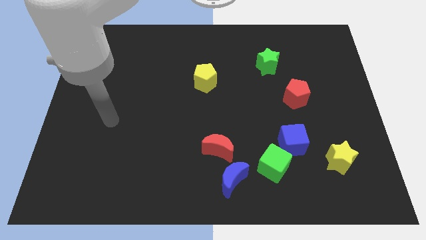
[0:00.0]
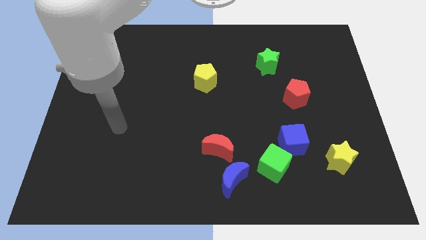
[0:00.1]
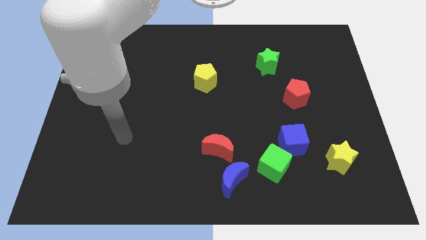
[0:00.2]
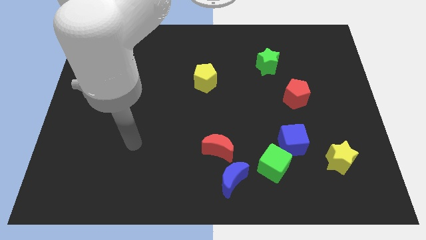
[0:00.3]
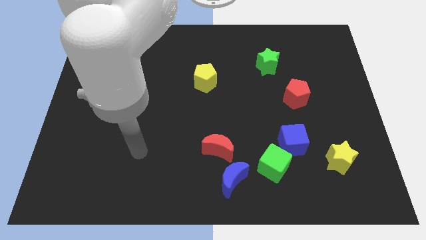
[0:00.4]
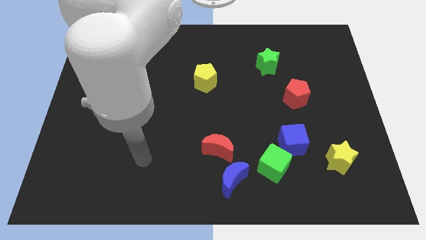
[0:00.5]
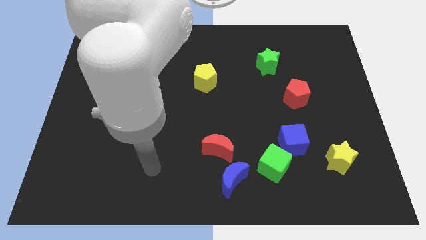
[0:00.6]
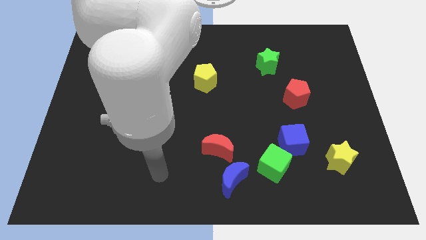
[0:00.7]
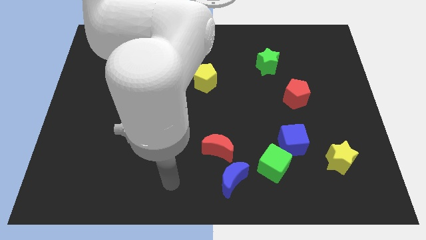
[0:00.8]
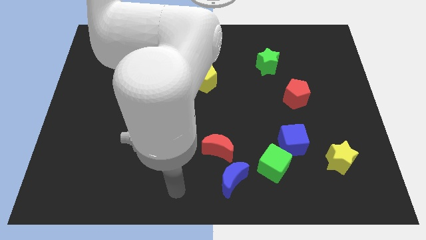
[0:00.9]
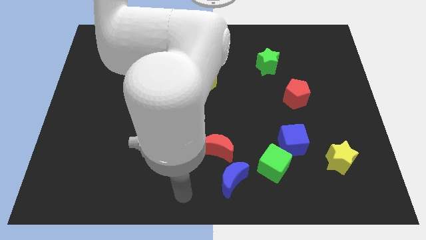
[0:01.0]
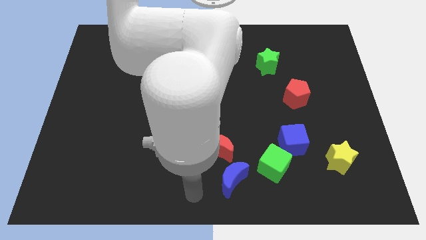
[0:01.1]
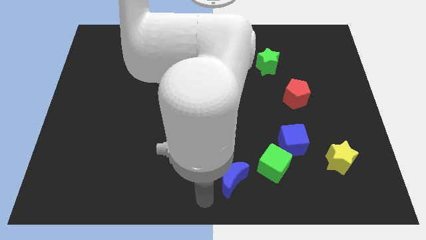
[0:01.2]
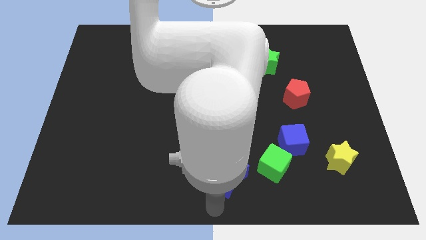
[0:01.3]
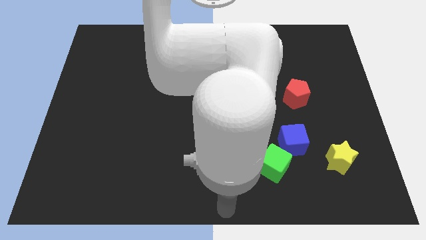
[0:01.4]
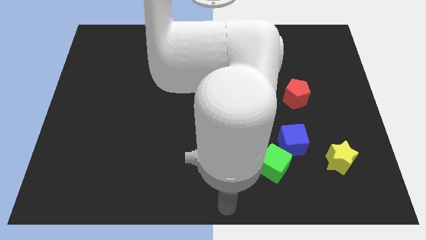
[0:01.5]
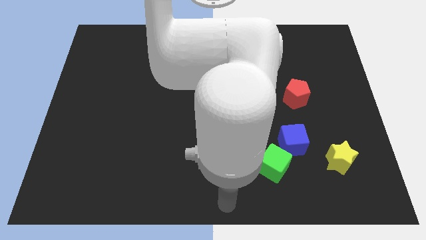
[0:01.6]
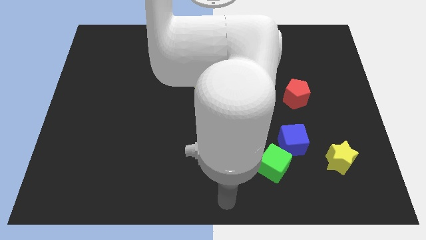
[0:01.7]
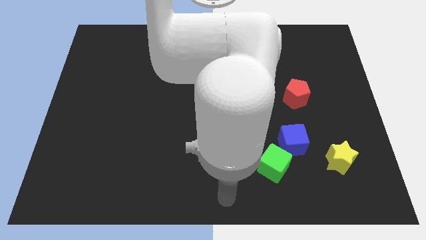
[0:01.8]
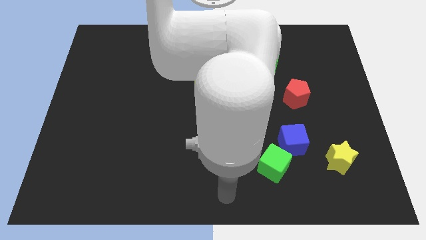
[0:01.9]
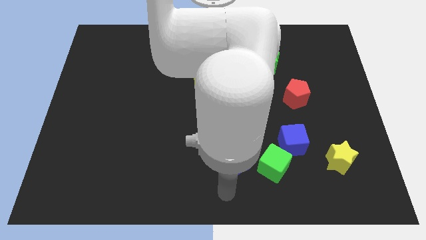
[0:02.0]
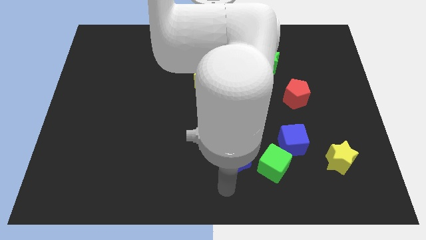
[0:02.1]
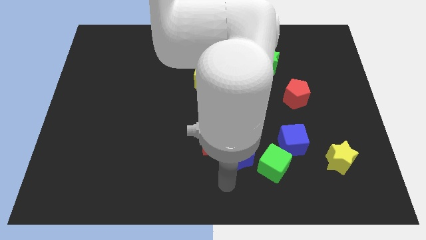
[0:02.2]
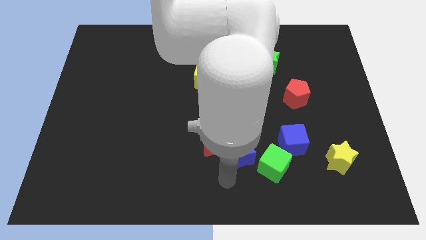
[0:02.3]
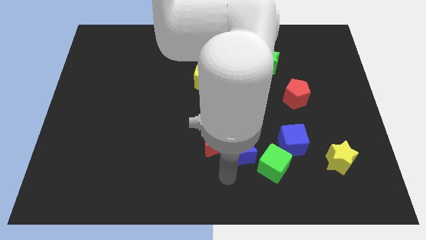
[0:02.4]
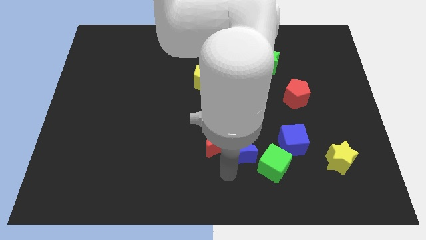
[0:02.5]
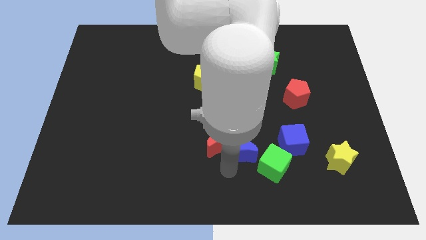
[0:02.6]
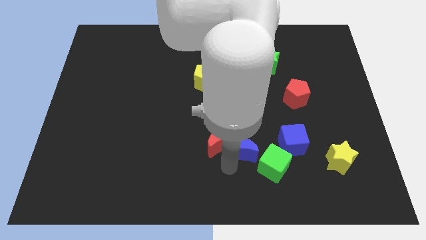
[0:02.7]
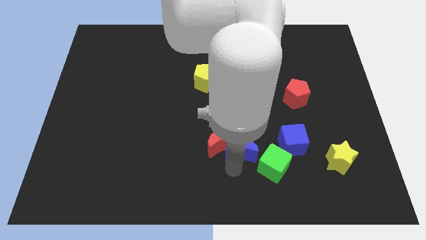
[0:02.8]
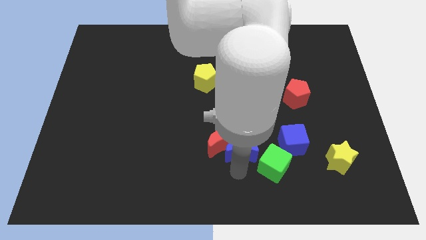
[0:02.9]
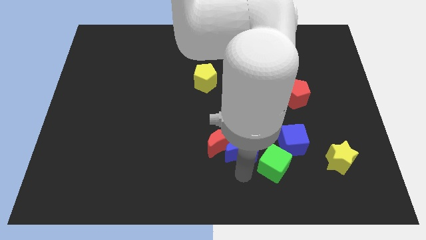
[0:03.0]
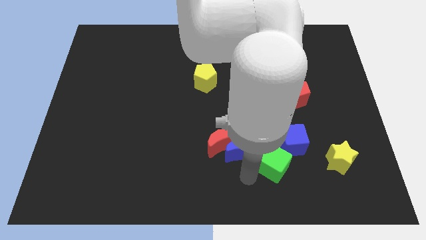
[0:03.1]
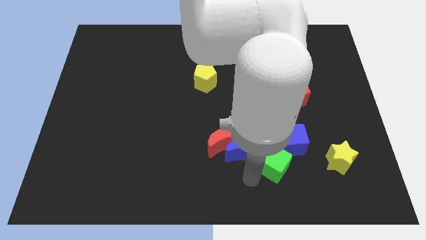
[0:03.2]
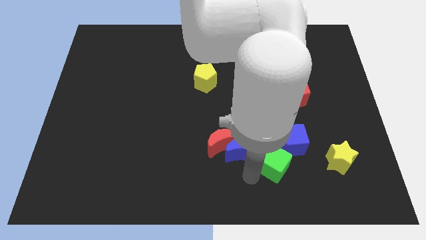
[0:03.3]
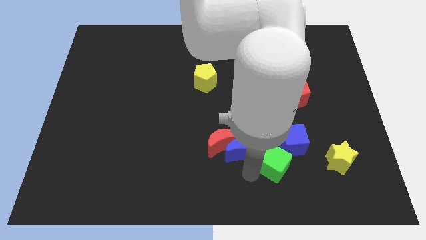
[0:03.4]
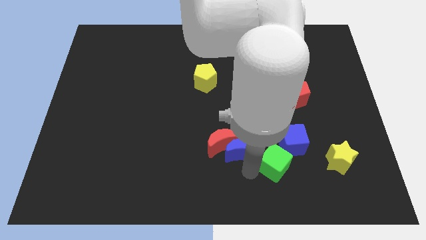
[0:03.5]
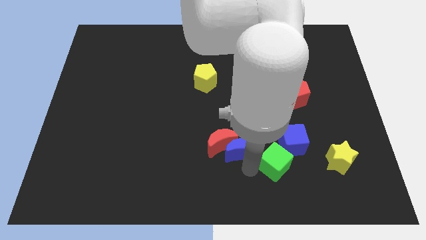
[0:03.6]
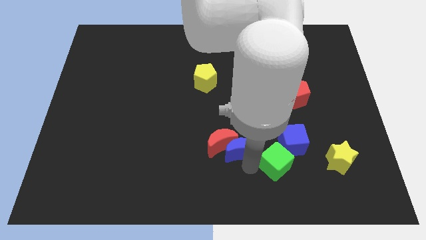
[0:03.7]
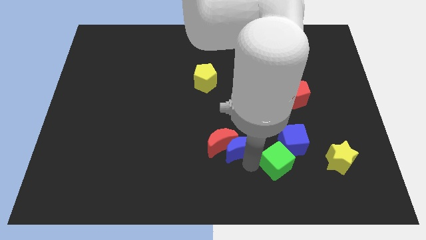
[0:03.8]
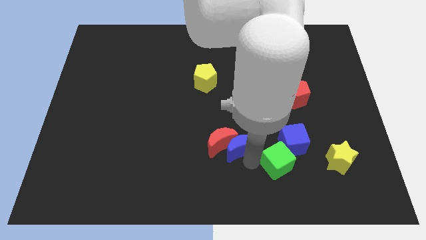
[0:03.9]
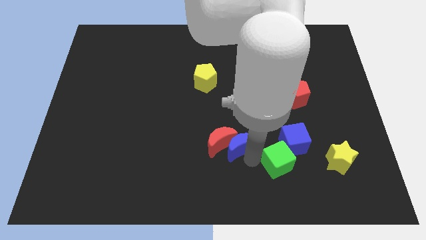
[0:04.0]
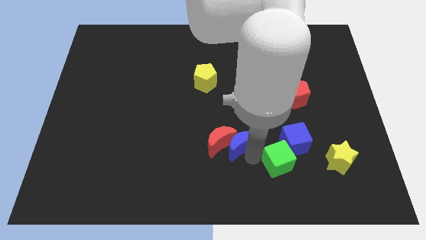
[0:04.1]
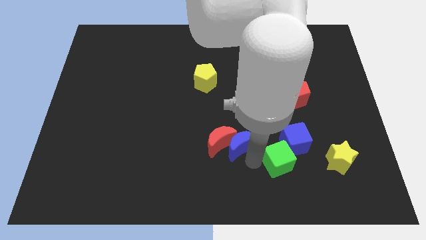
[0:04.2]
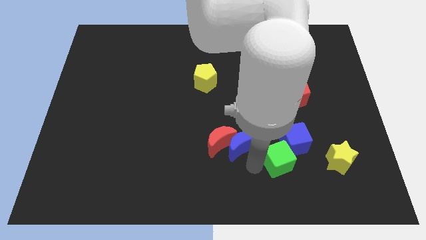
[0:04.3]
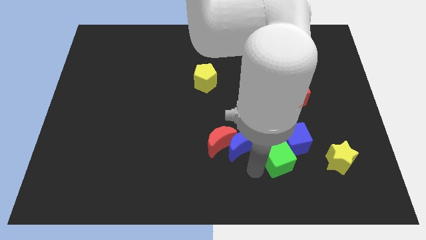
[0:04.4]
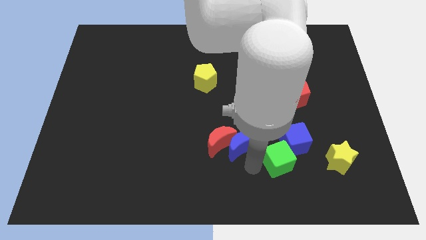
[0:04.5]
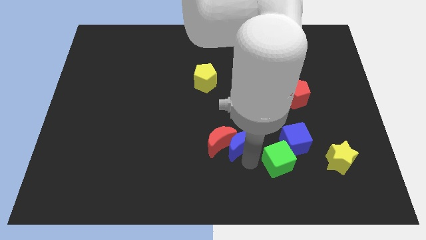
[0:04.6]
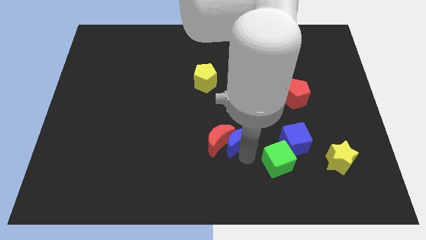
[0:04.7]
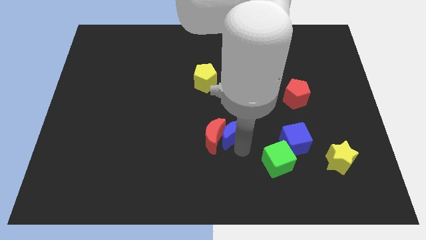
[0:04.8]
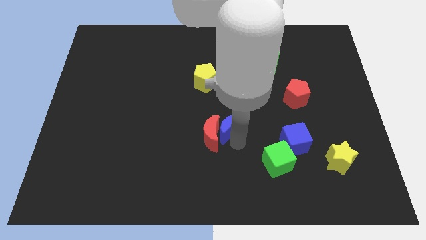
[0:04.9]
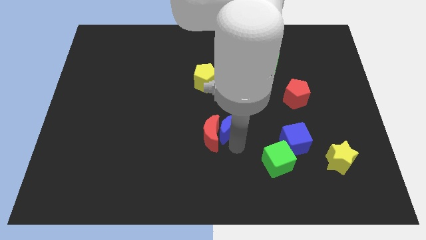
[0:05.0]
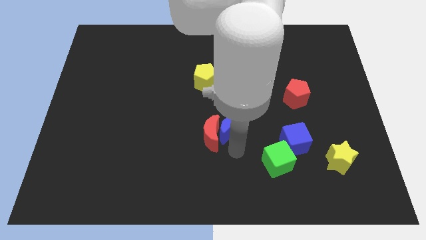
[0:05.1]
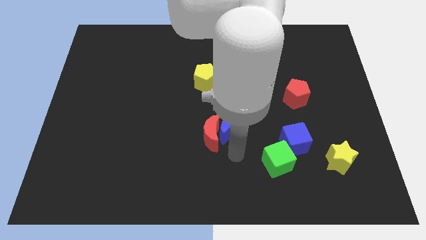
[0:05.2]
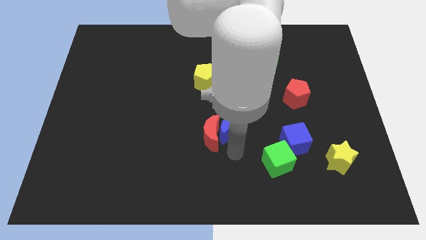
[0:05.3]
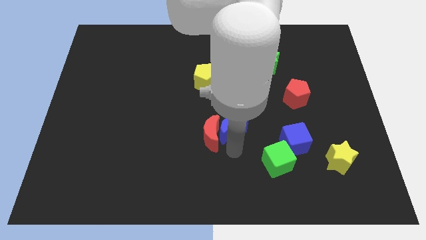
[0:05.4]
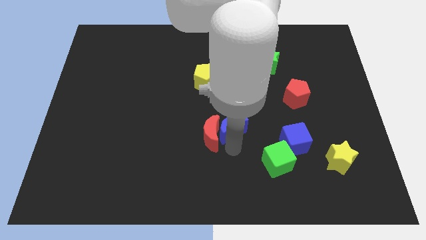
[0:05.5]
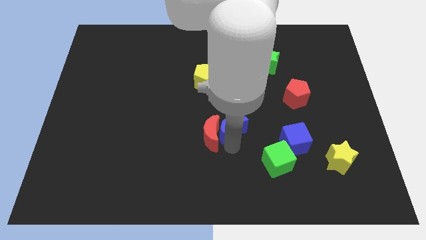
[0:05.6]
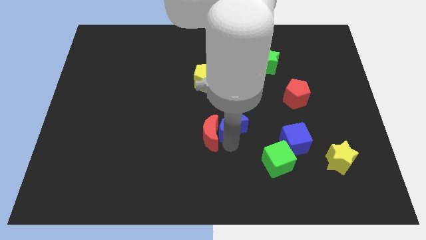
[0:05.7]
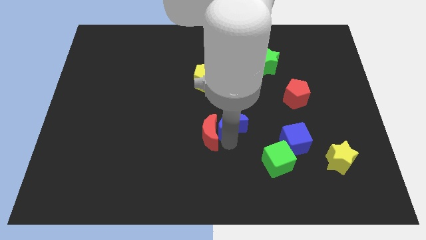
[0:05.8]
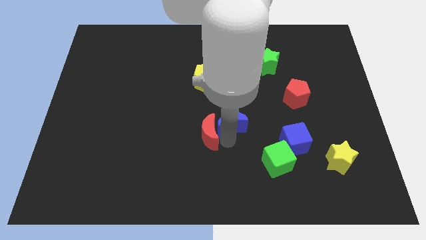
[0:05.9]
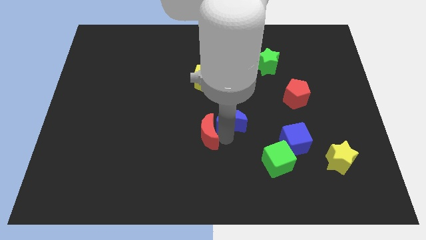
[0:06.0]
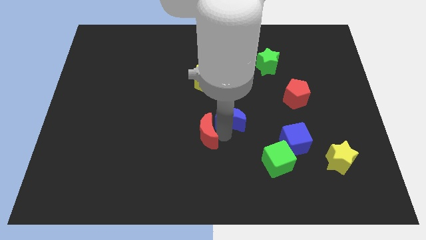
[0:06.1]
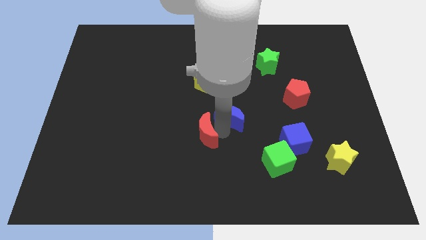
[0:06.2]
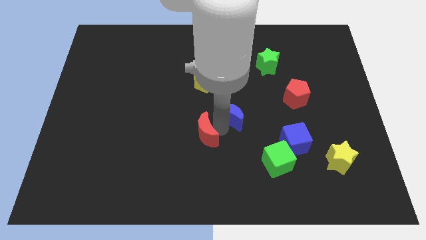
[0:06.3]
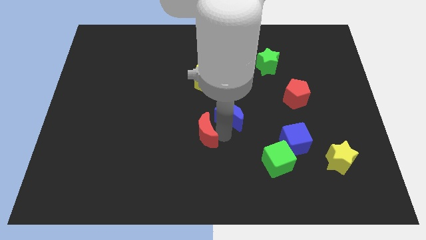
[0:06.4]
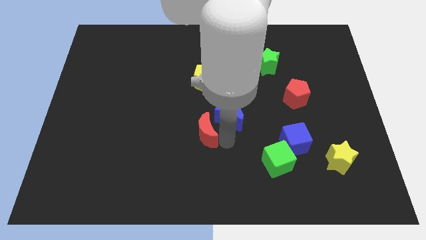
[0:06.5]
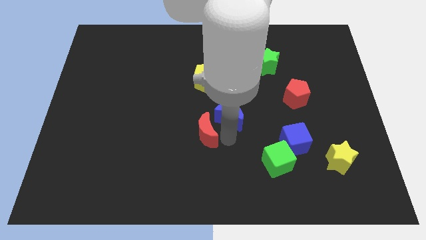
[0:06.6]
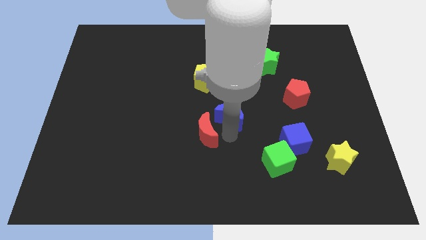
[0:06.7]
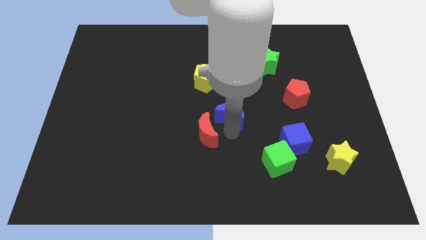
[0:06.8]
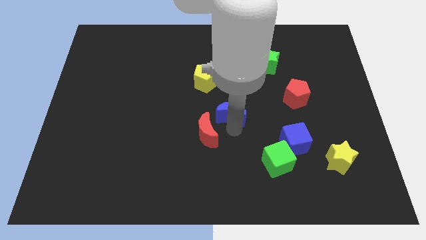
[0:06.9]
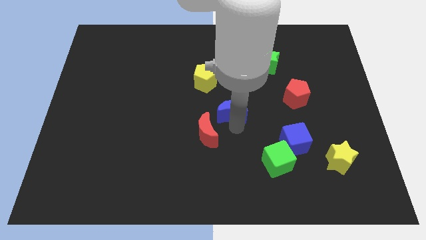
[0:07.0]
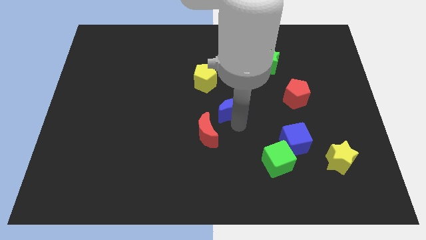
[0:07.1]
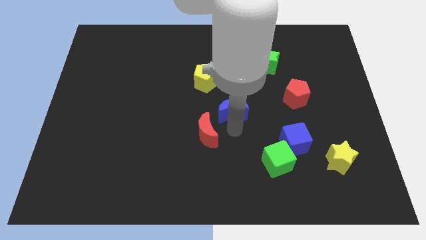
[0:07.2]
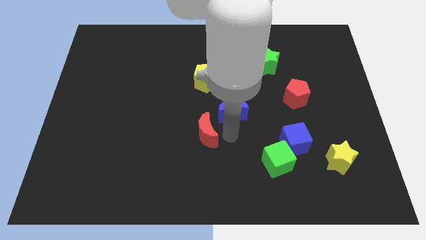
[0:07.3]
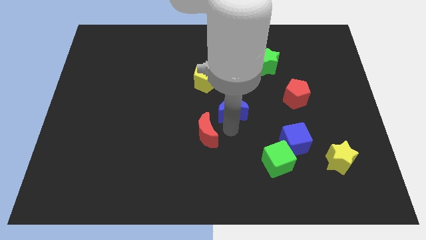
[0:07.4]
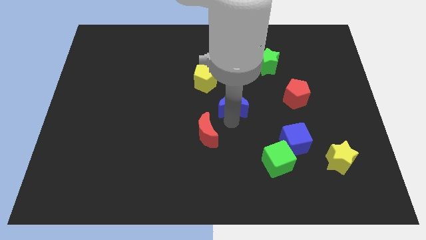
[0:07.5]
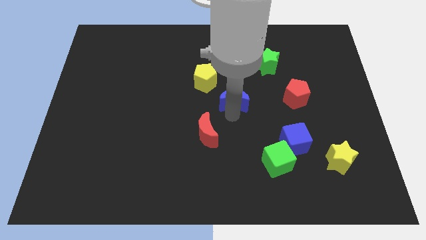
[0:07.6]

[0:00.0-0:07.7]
push the blue moon upwards

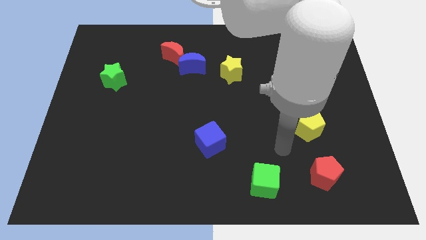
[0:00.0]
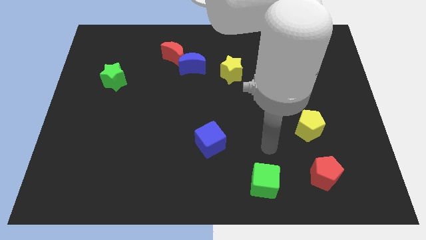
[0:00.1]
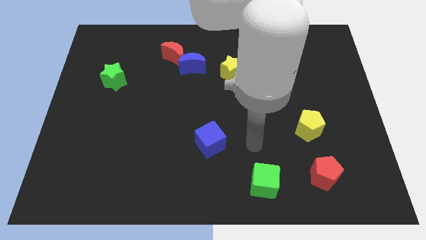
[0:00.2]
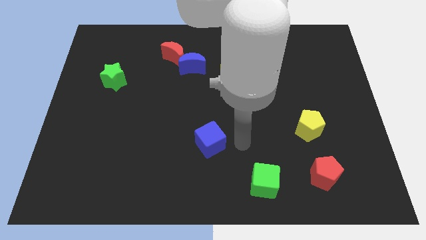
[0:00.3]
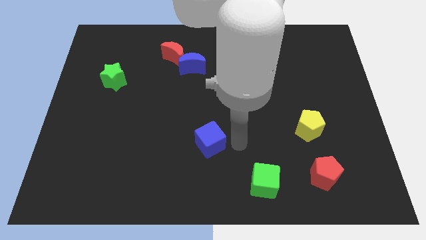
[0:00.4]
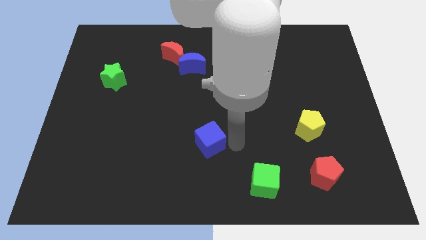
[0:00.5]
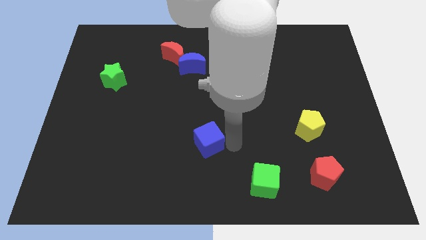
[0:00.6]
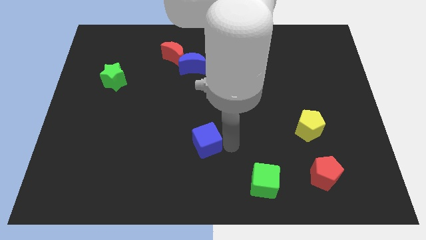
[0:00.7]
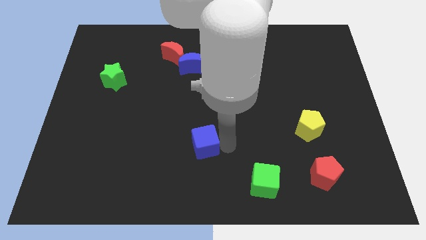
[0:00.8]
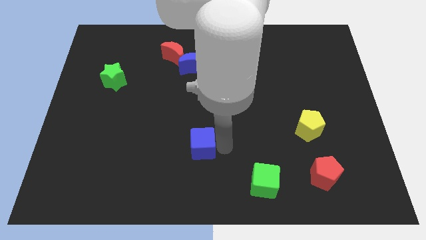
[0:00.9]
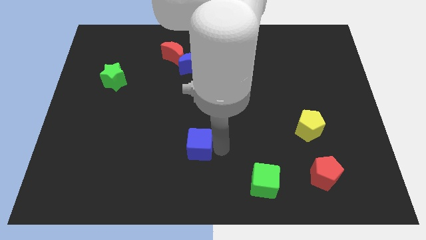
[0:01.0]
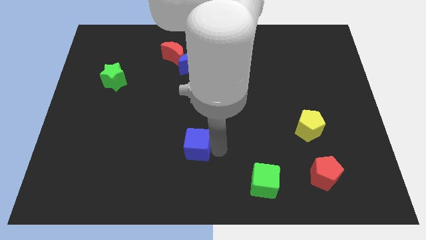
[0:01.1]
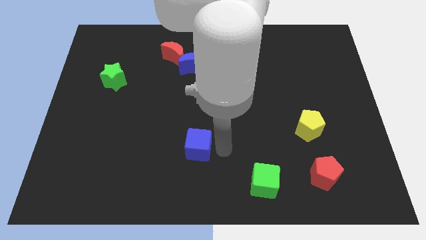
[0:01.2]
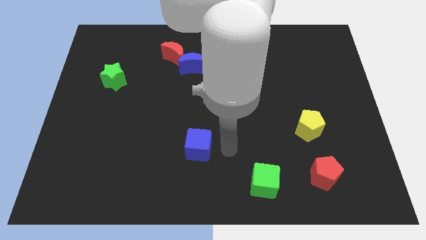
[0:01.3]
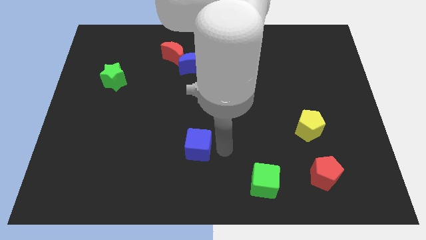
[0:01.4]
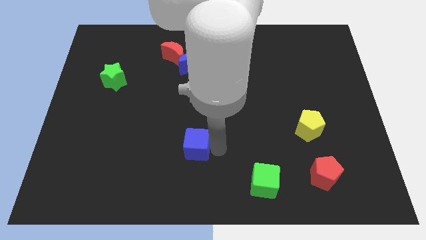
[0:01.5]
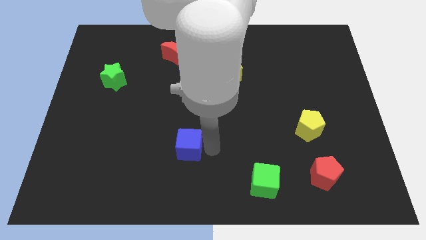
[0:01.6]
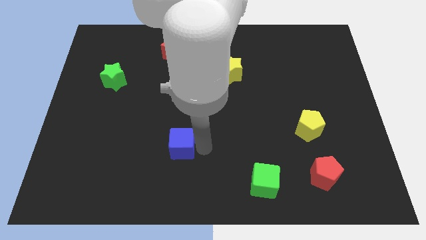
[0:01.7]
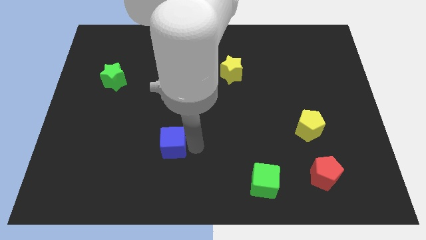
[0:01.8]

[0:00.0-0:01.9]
slide the blue cube left a bit
